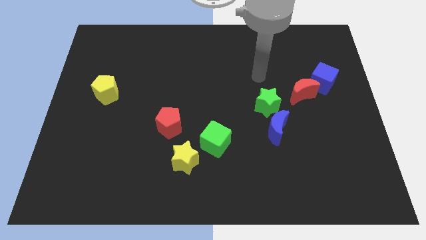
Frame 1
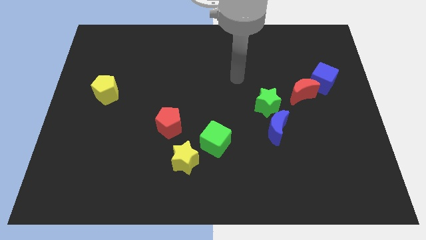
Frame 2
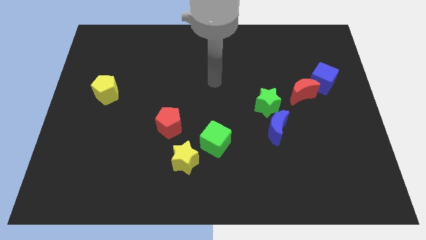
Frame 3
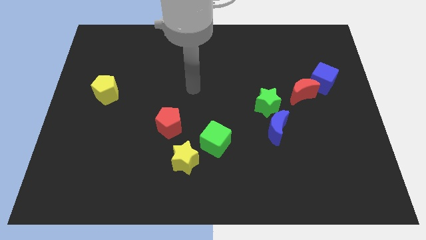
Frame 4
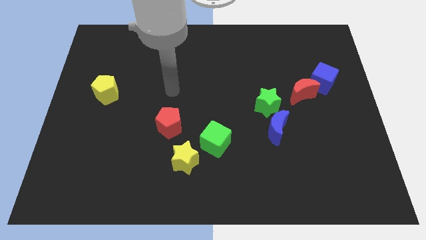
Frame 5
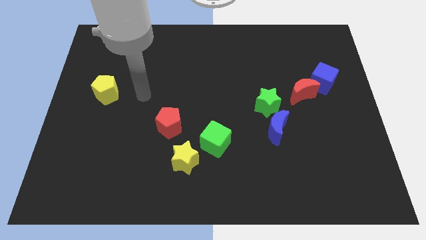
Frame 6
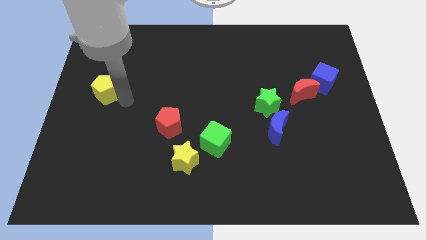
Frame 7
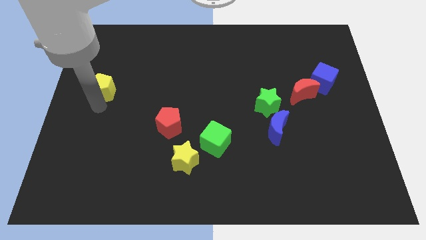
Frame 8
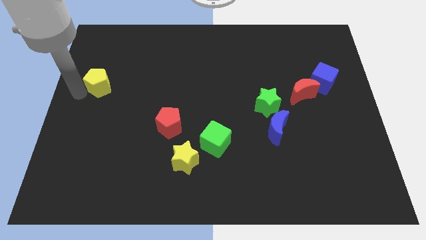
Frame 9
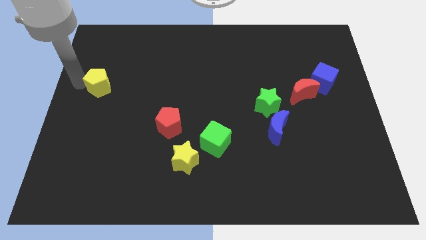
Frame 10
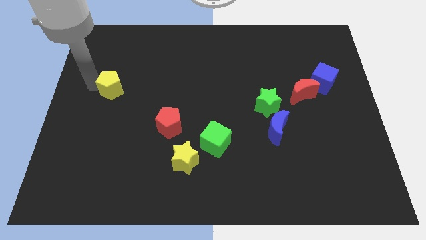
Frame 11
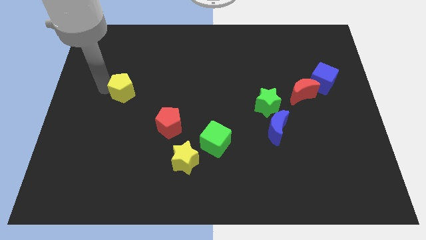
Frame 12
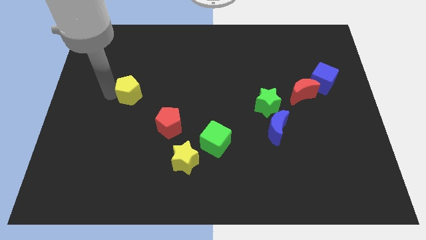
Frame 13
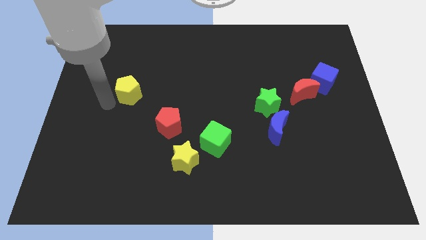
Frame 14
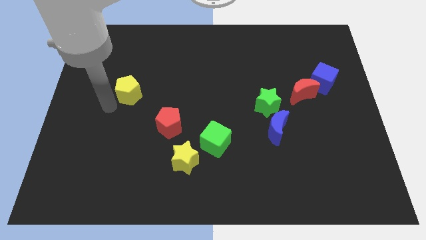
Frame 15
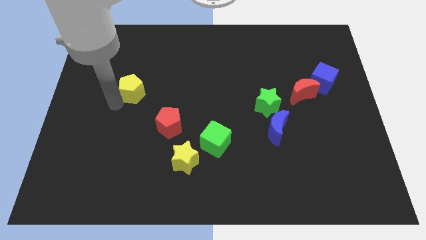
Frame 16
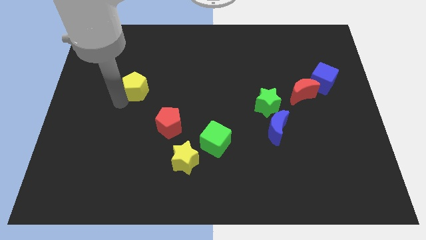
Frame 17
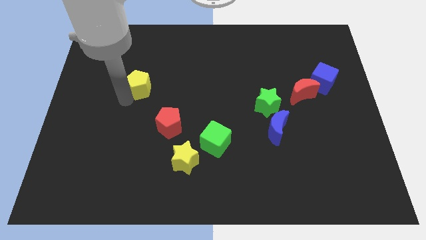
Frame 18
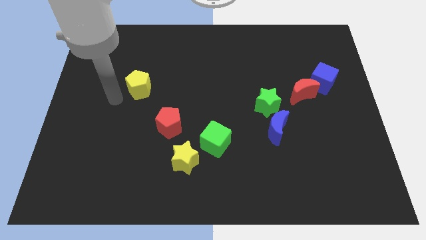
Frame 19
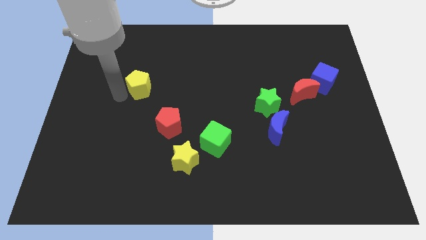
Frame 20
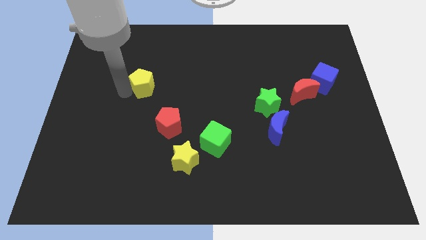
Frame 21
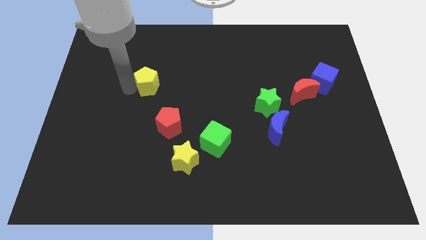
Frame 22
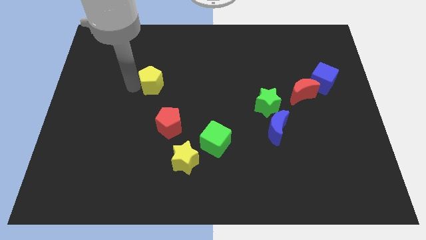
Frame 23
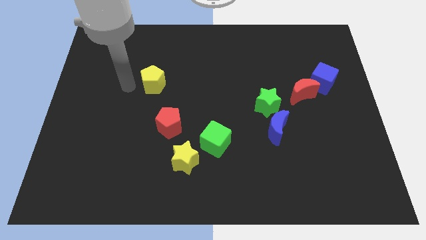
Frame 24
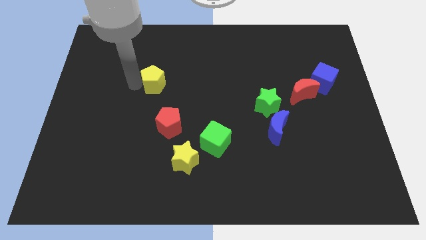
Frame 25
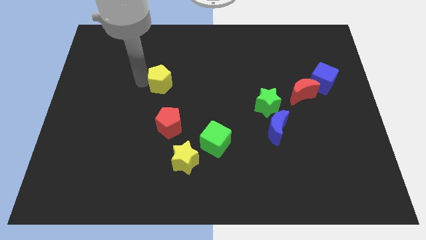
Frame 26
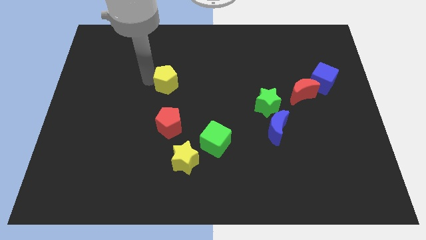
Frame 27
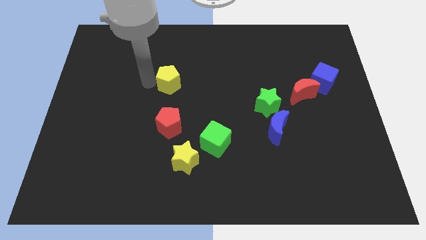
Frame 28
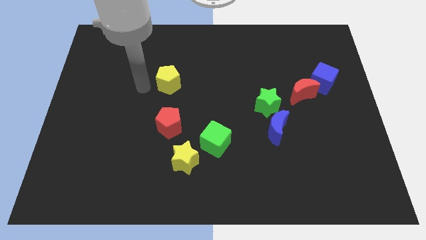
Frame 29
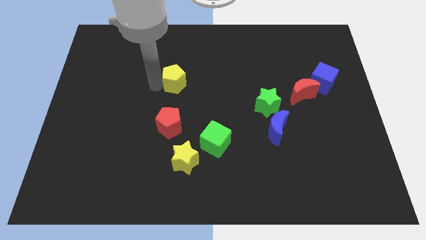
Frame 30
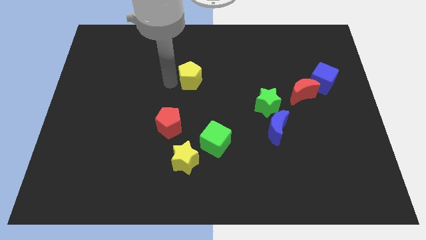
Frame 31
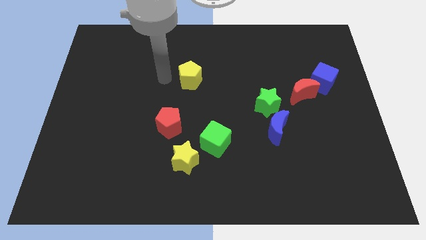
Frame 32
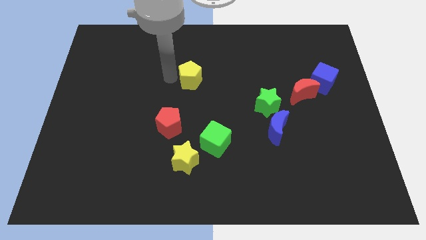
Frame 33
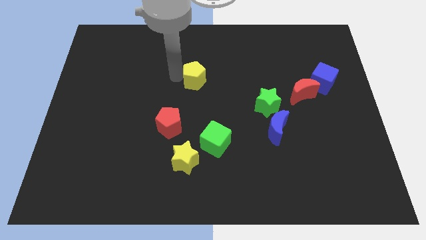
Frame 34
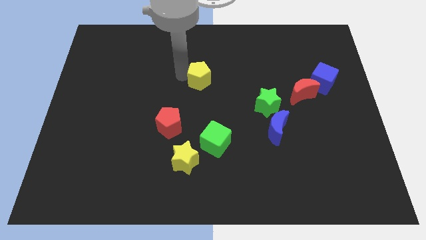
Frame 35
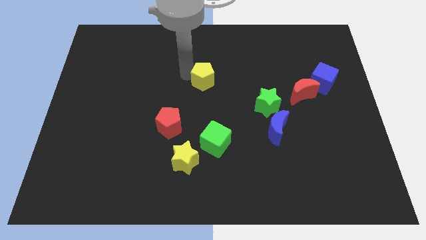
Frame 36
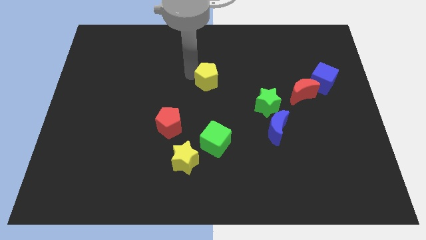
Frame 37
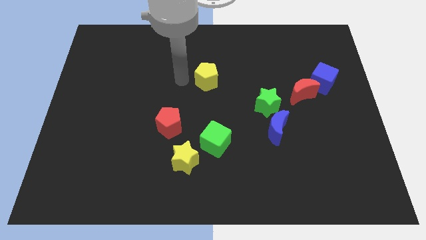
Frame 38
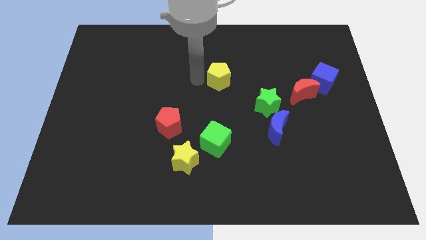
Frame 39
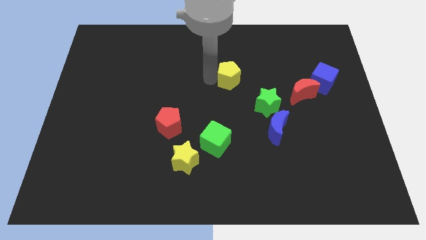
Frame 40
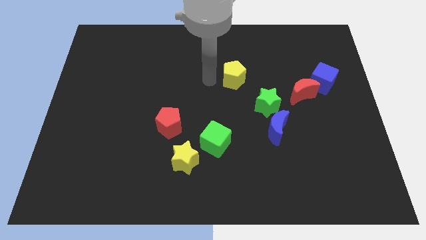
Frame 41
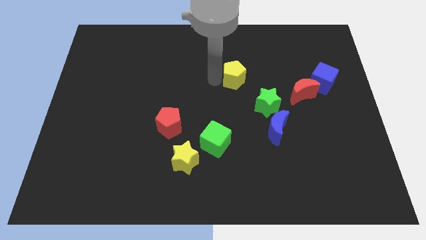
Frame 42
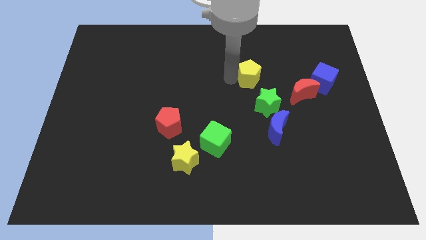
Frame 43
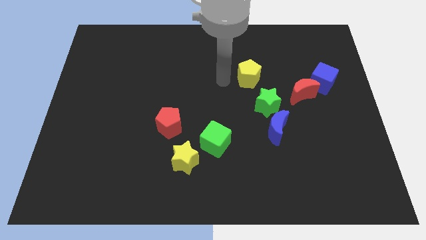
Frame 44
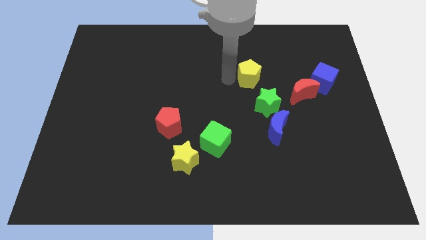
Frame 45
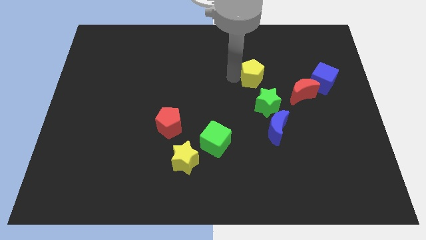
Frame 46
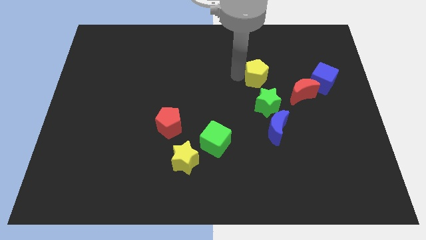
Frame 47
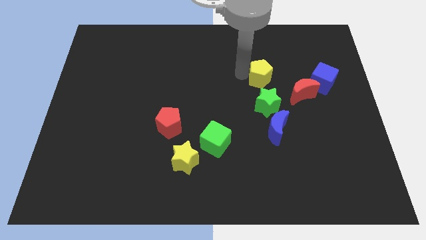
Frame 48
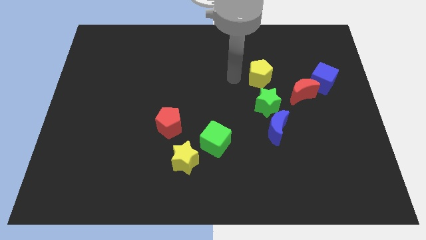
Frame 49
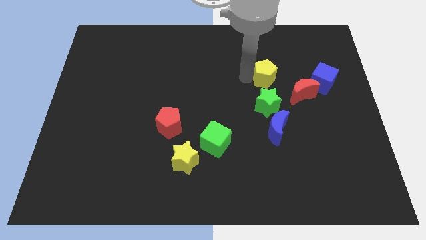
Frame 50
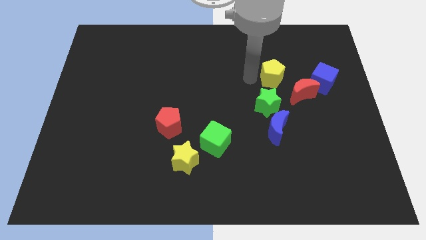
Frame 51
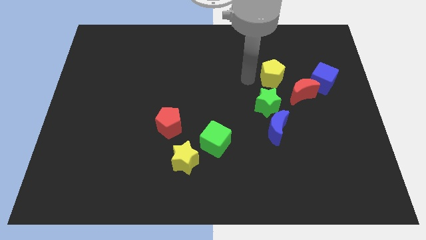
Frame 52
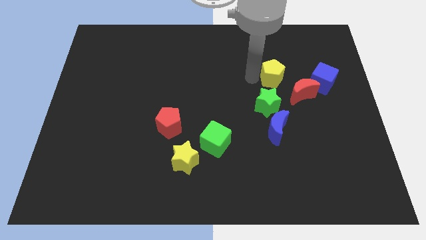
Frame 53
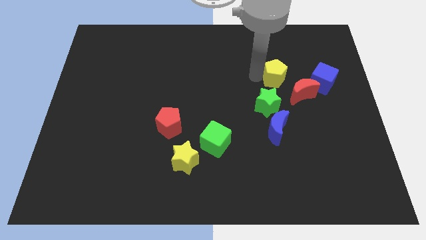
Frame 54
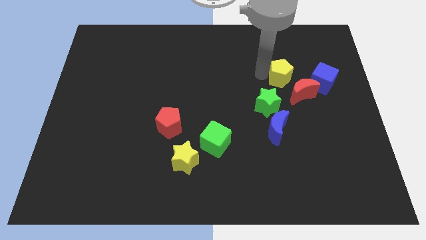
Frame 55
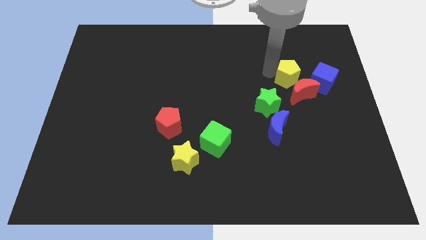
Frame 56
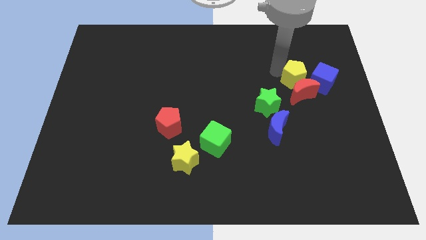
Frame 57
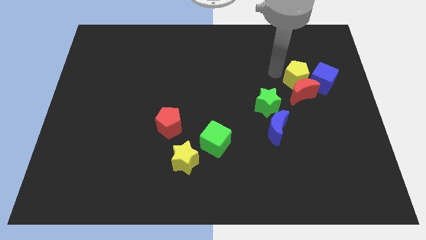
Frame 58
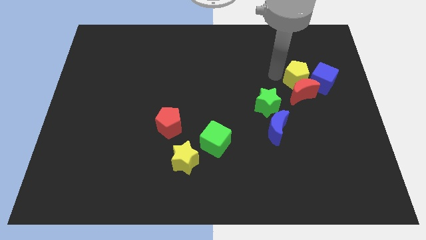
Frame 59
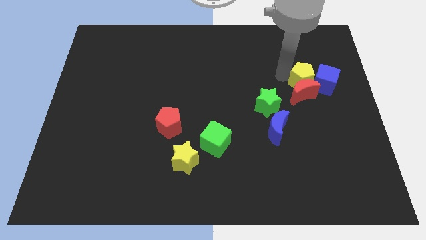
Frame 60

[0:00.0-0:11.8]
push the yellow pentagon towards the blue cube

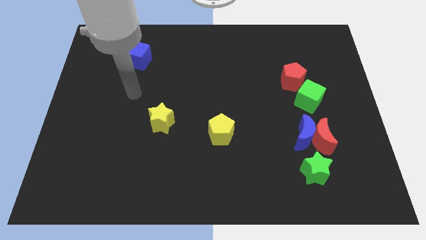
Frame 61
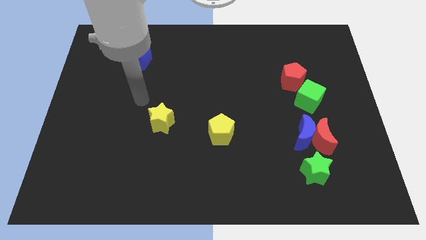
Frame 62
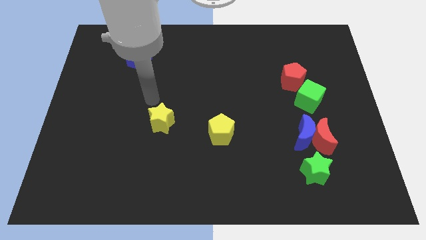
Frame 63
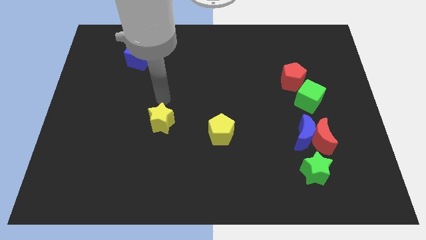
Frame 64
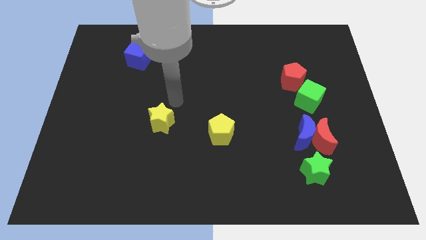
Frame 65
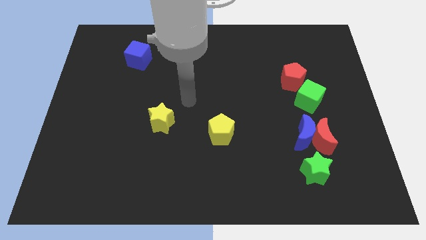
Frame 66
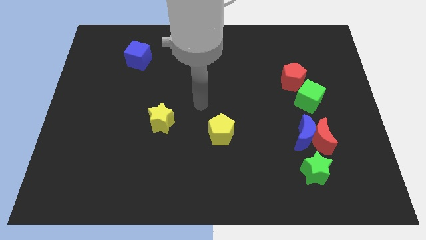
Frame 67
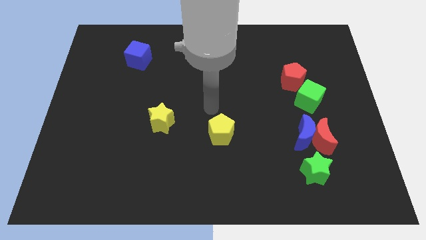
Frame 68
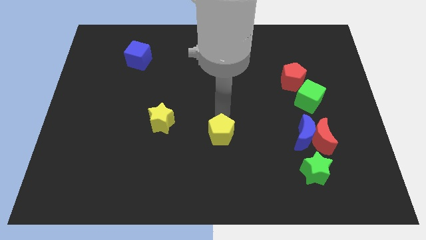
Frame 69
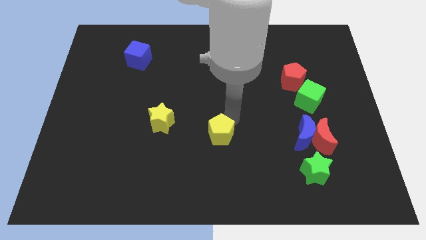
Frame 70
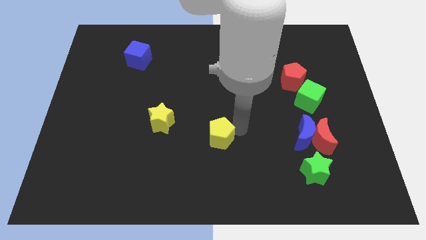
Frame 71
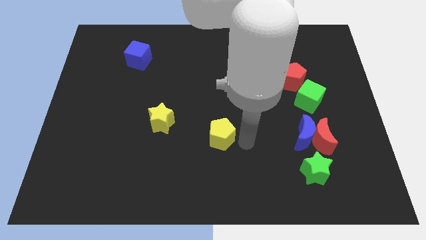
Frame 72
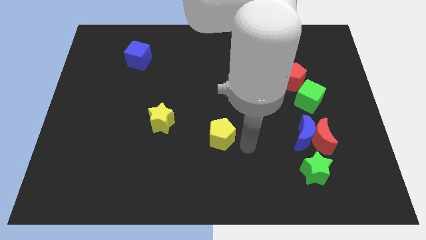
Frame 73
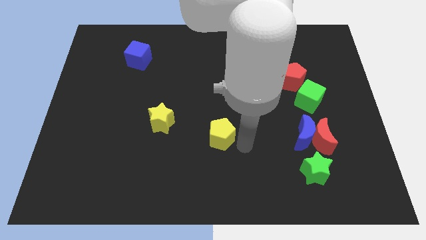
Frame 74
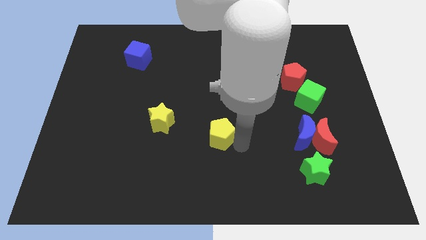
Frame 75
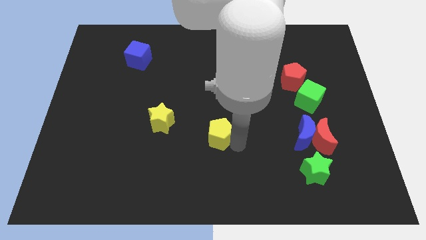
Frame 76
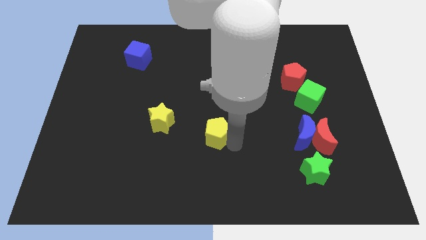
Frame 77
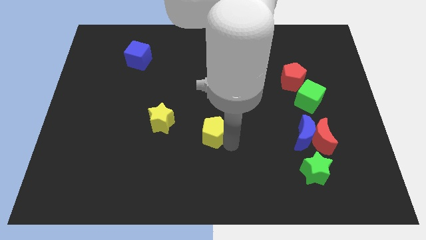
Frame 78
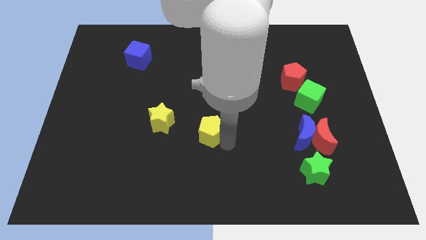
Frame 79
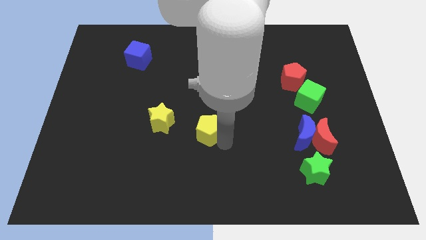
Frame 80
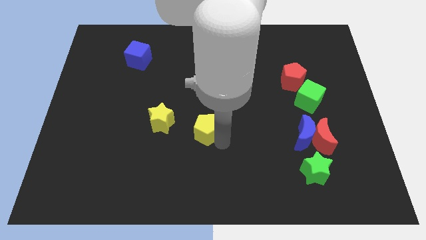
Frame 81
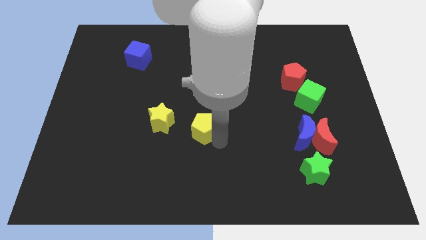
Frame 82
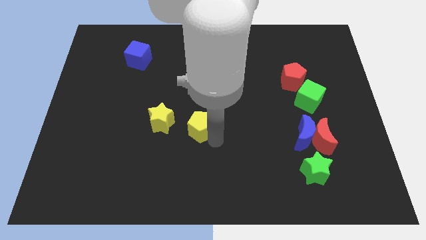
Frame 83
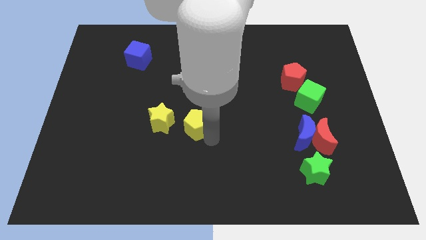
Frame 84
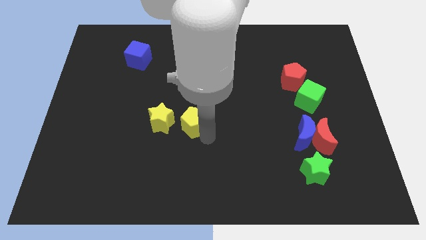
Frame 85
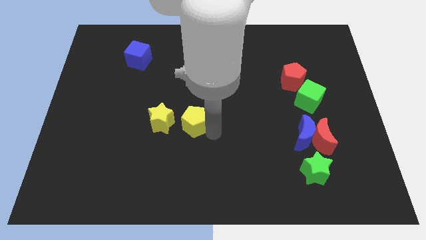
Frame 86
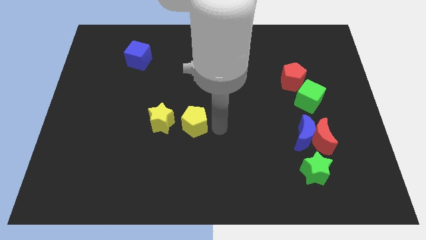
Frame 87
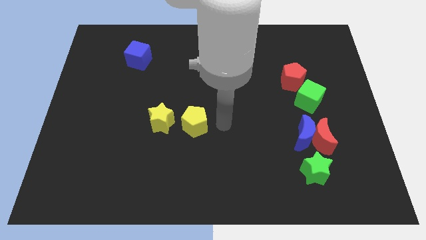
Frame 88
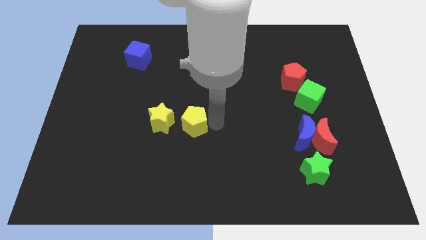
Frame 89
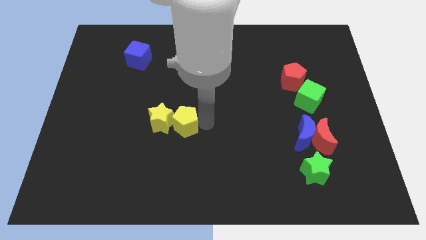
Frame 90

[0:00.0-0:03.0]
slide the yellow pentagon towards the yellow star
